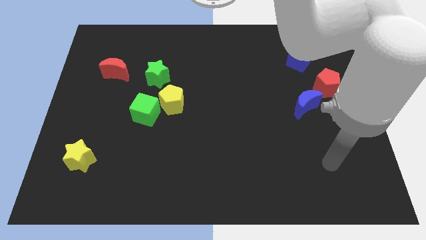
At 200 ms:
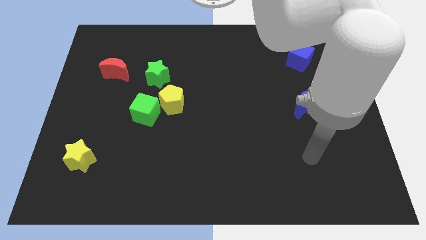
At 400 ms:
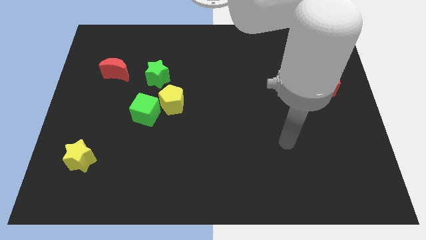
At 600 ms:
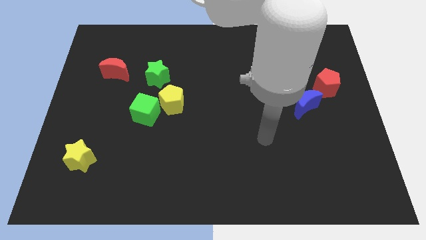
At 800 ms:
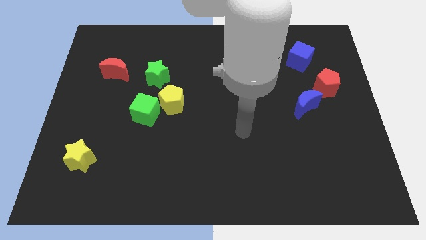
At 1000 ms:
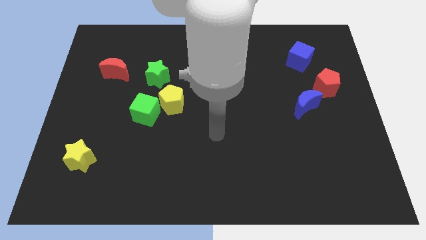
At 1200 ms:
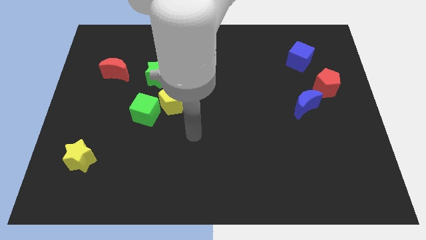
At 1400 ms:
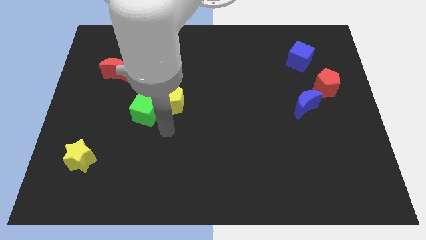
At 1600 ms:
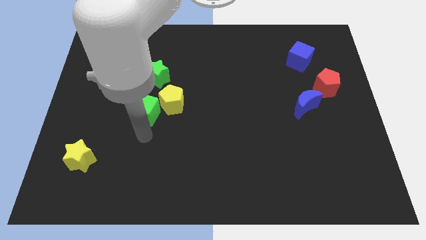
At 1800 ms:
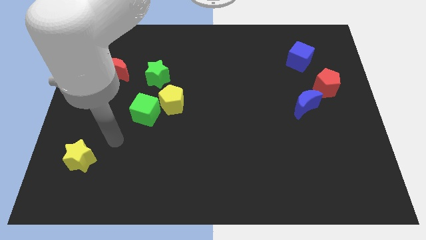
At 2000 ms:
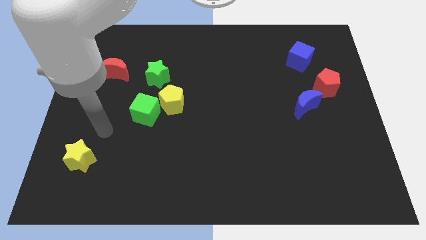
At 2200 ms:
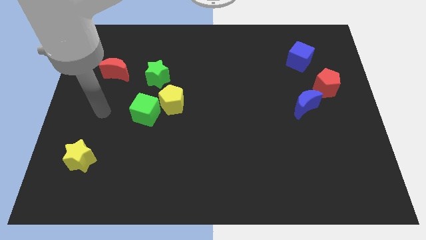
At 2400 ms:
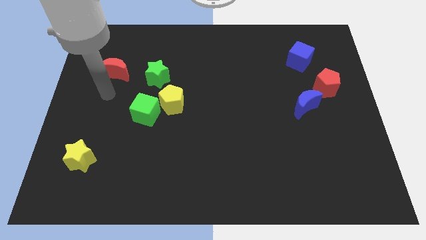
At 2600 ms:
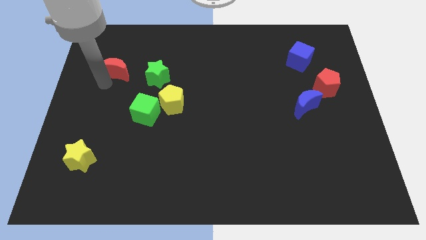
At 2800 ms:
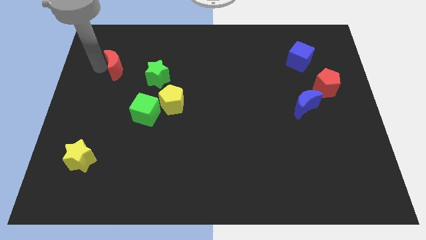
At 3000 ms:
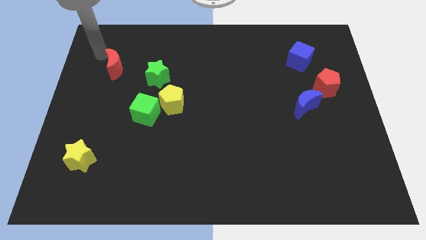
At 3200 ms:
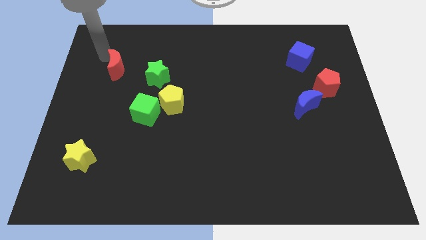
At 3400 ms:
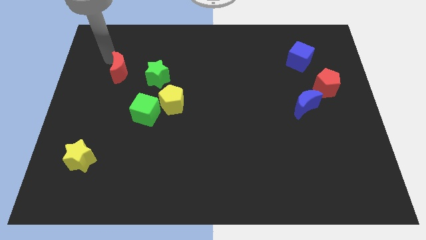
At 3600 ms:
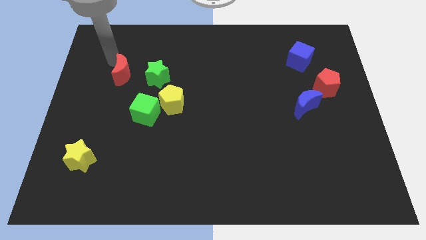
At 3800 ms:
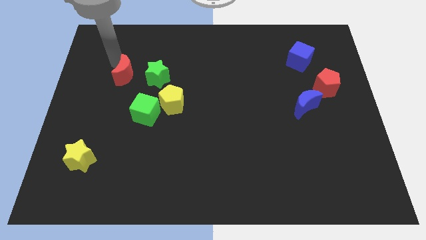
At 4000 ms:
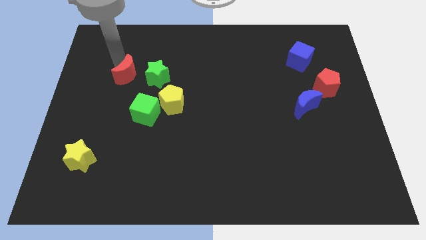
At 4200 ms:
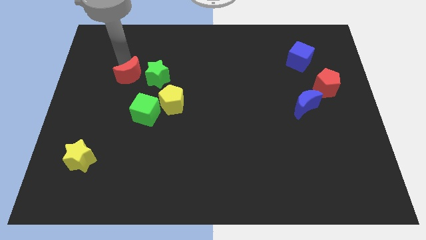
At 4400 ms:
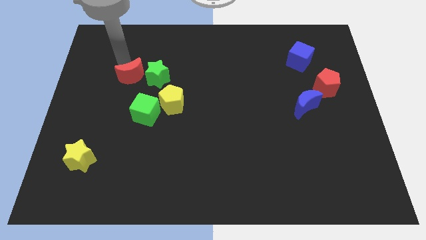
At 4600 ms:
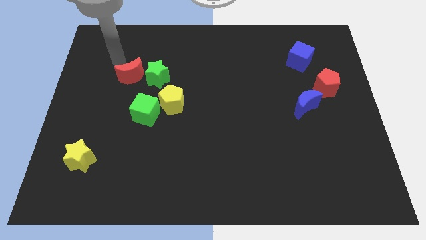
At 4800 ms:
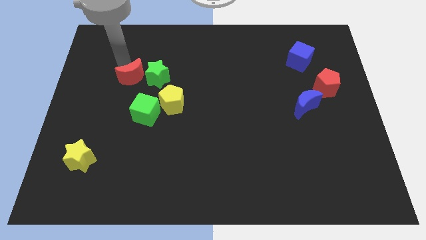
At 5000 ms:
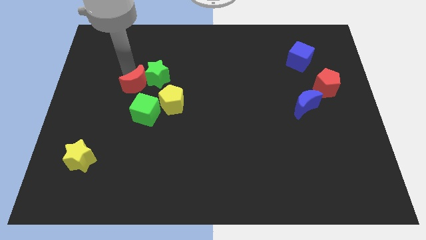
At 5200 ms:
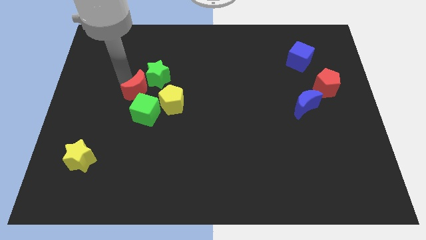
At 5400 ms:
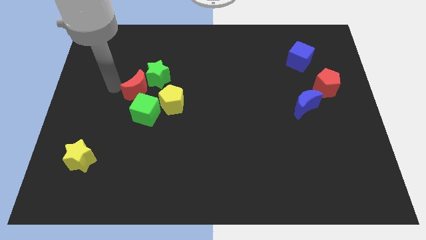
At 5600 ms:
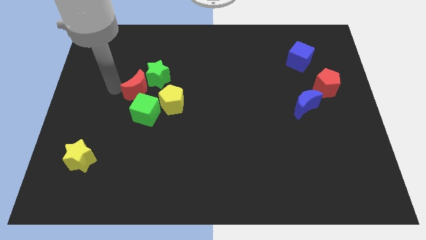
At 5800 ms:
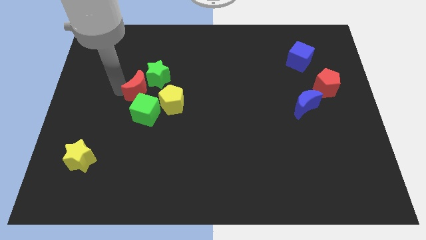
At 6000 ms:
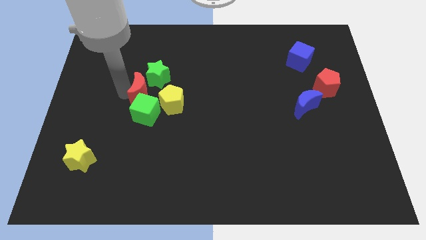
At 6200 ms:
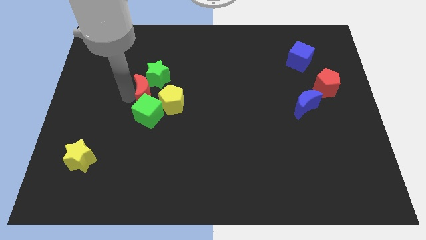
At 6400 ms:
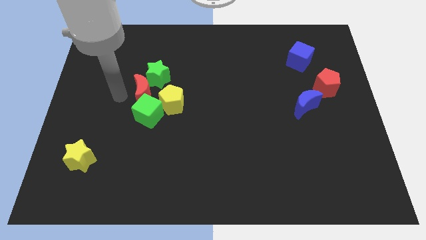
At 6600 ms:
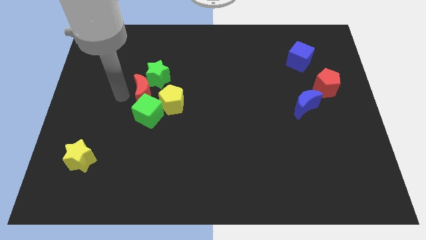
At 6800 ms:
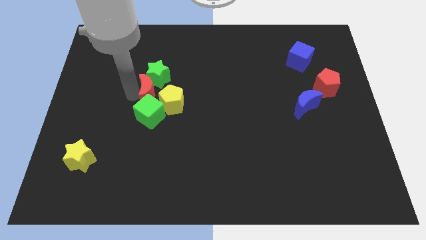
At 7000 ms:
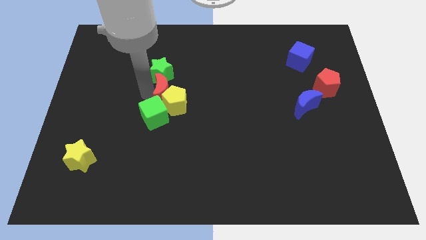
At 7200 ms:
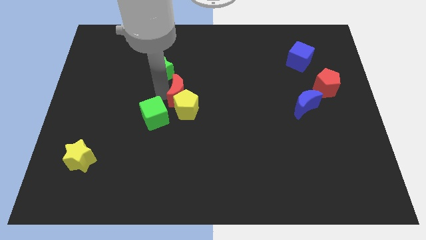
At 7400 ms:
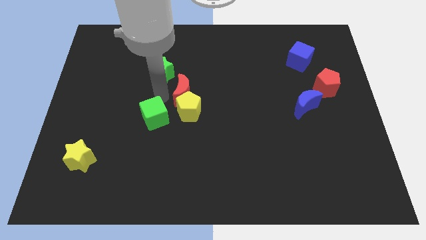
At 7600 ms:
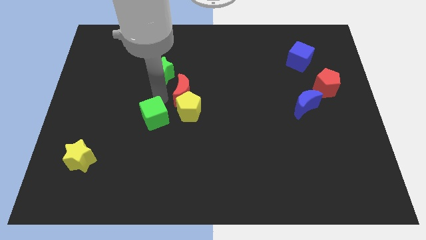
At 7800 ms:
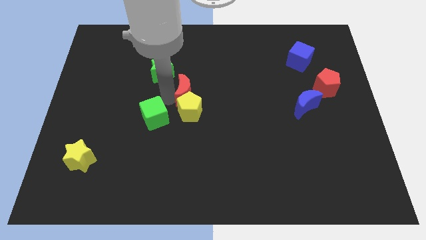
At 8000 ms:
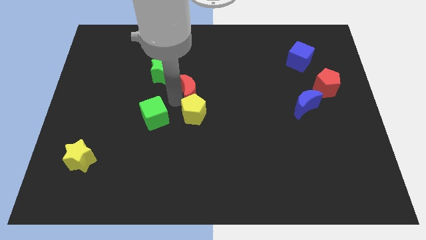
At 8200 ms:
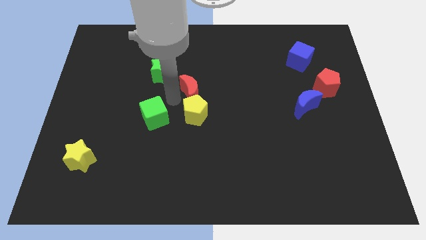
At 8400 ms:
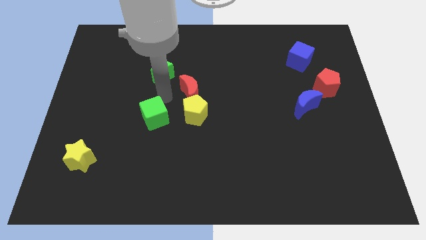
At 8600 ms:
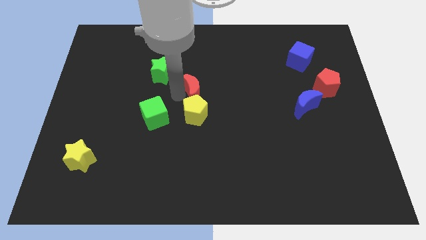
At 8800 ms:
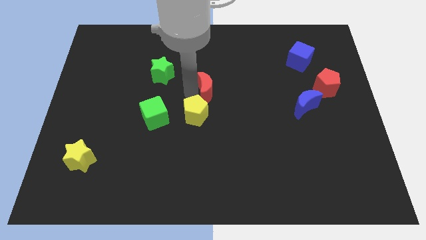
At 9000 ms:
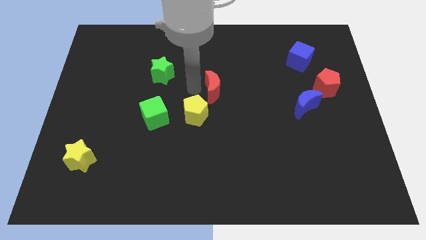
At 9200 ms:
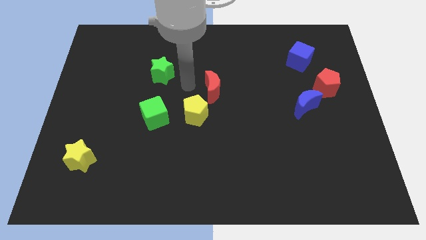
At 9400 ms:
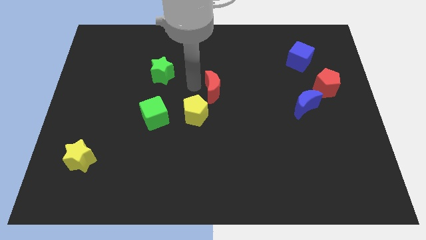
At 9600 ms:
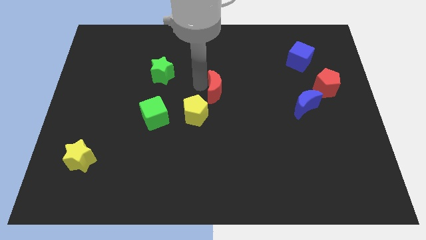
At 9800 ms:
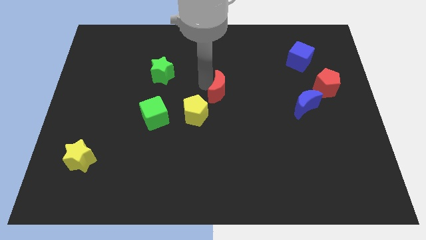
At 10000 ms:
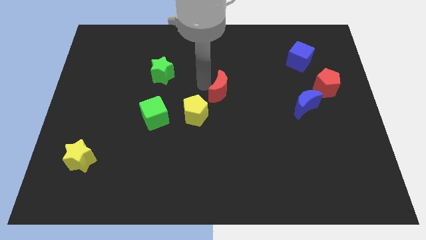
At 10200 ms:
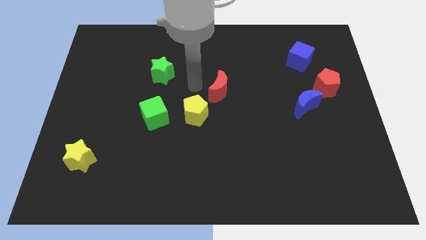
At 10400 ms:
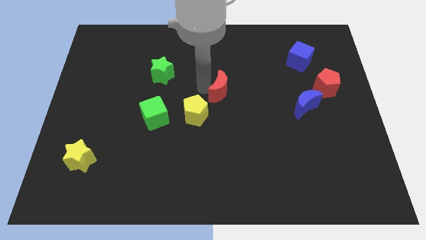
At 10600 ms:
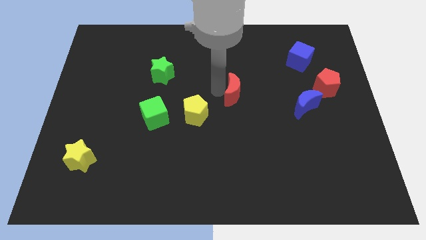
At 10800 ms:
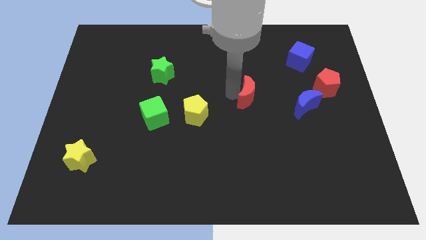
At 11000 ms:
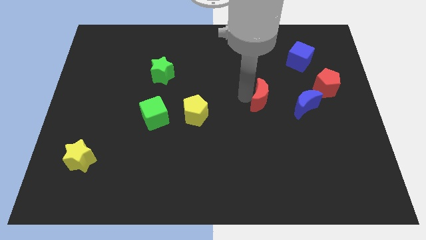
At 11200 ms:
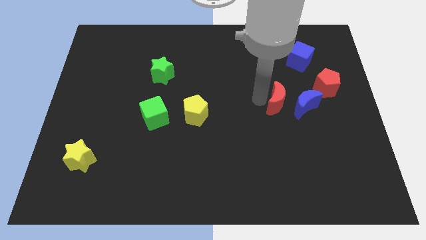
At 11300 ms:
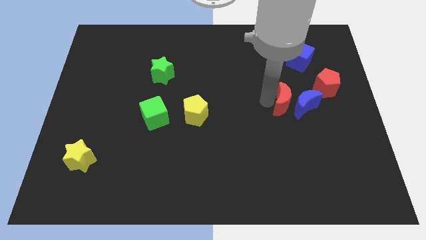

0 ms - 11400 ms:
move the red moon next to the blue moon

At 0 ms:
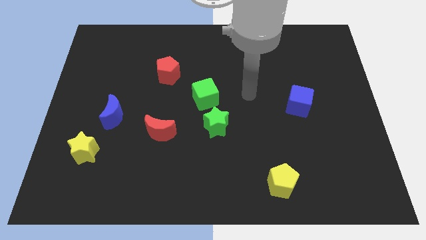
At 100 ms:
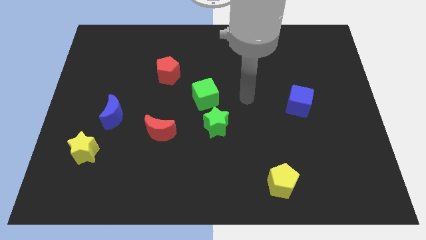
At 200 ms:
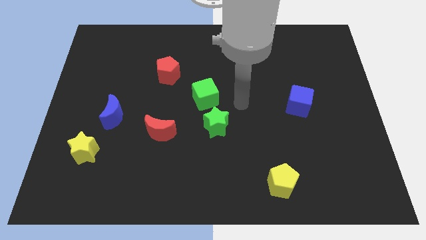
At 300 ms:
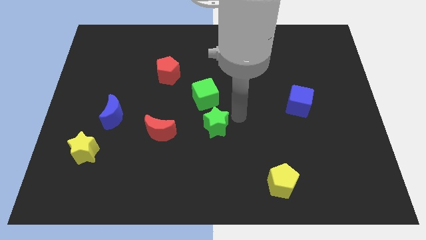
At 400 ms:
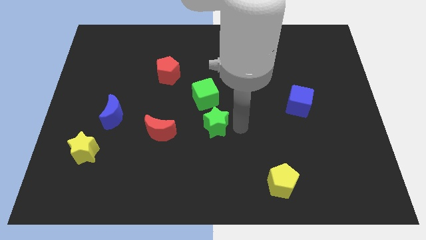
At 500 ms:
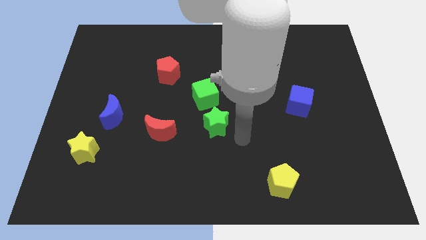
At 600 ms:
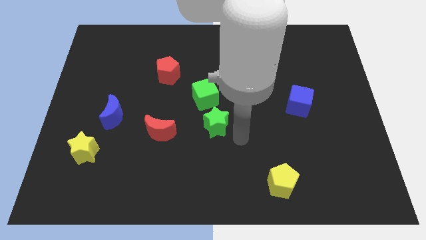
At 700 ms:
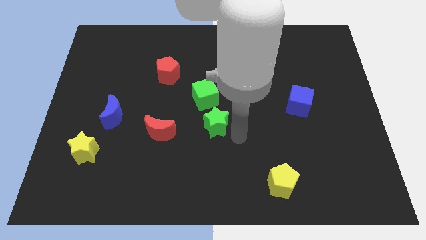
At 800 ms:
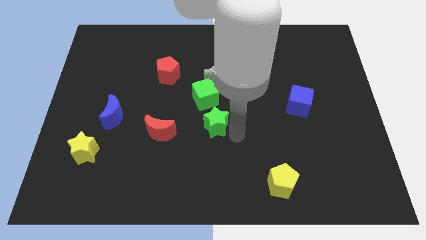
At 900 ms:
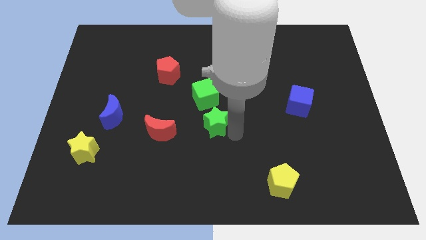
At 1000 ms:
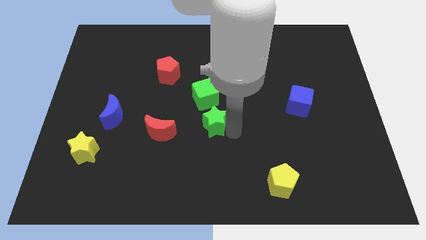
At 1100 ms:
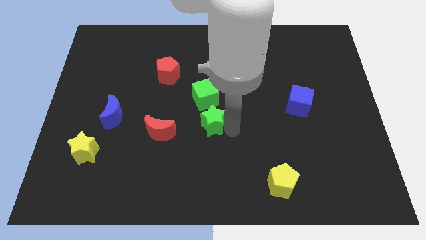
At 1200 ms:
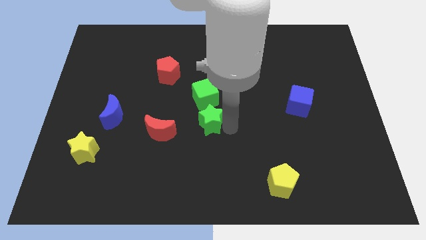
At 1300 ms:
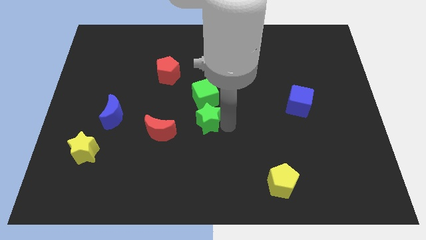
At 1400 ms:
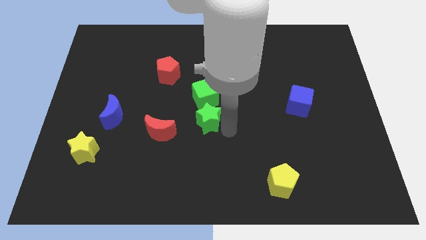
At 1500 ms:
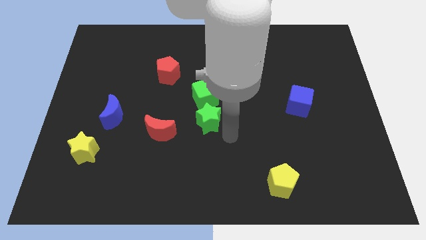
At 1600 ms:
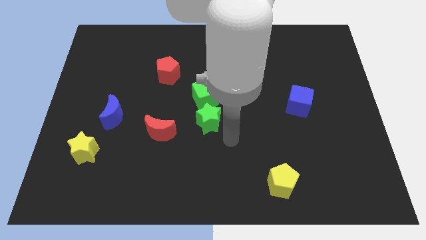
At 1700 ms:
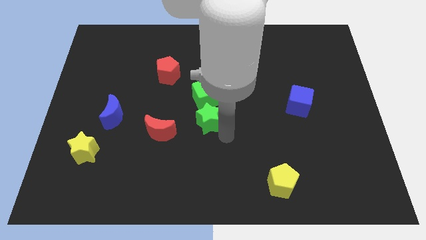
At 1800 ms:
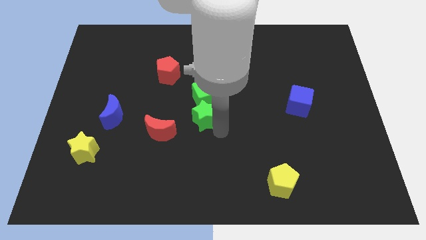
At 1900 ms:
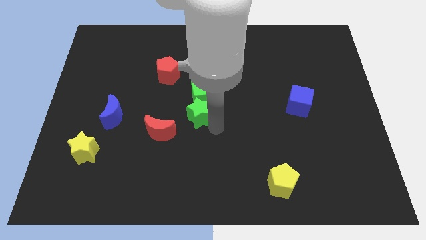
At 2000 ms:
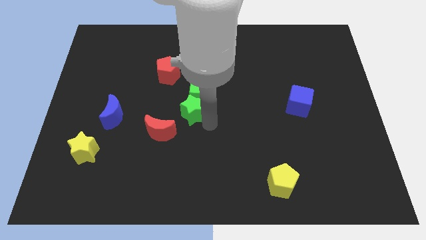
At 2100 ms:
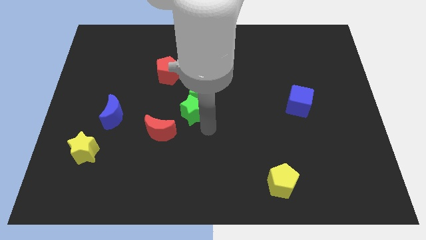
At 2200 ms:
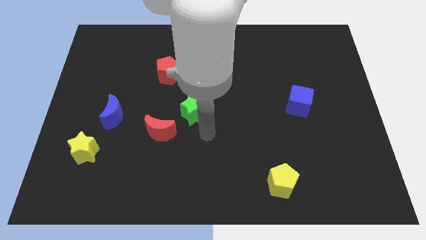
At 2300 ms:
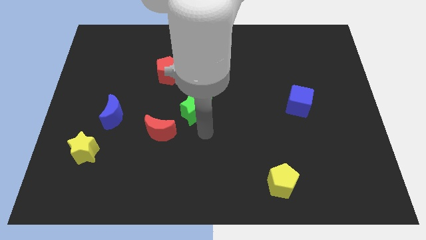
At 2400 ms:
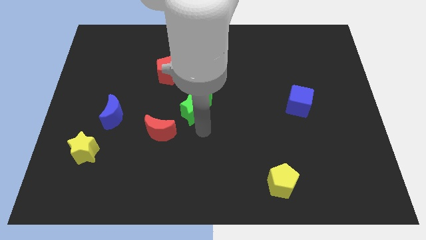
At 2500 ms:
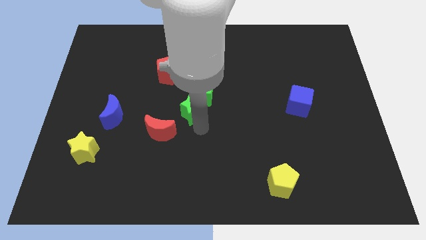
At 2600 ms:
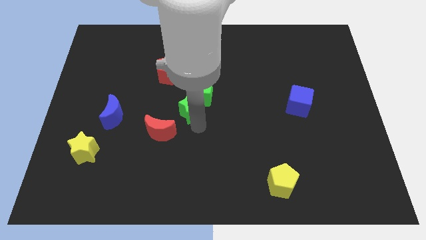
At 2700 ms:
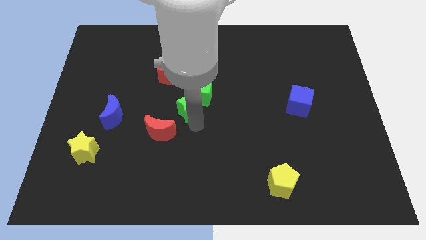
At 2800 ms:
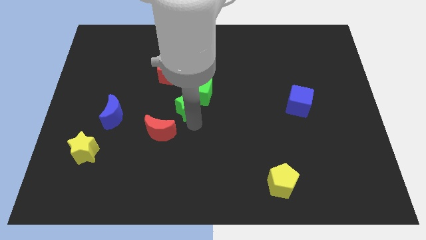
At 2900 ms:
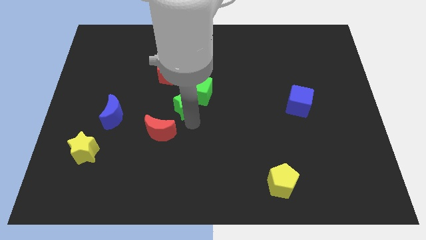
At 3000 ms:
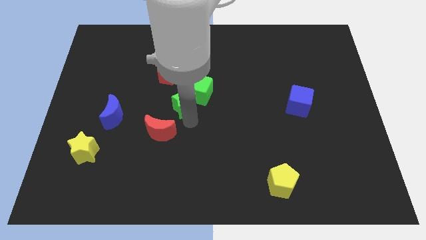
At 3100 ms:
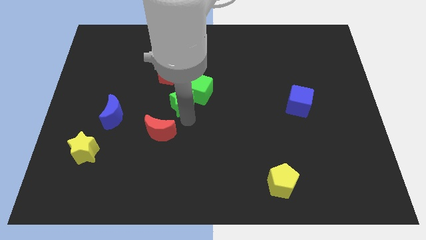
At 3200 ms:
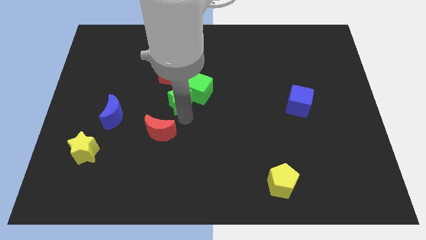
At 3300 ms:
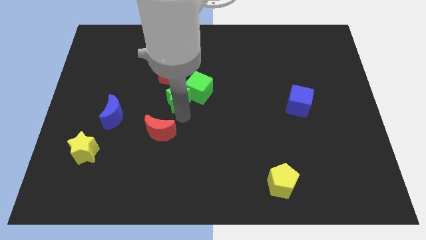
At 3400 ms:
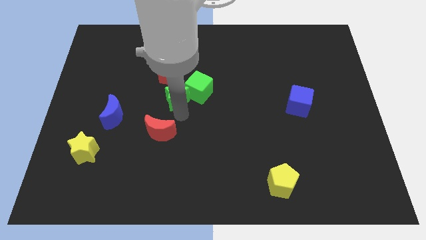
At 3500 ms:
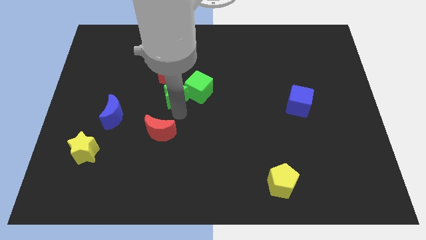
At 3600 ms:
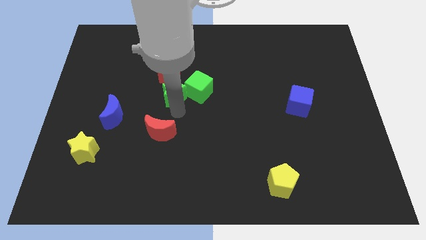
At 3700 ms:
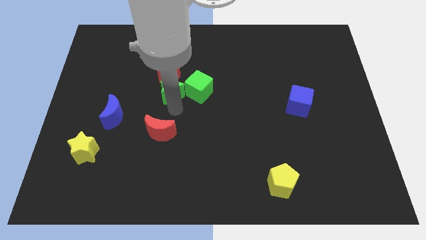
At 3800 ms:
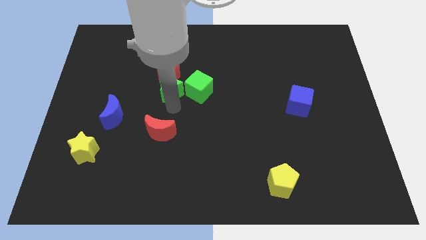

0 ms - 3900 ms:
put the green star close to the red pentagon
